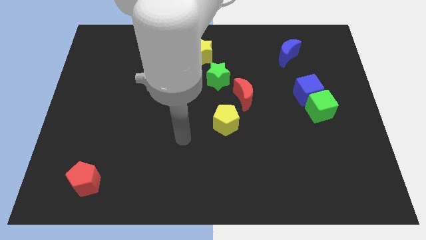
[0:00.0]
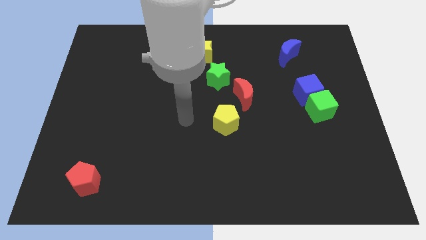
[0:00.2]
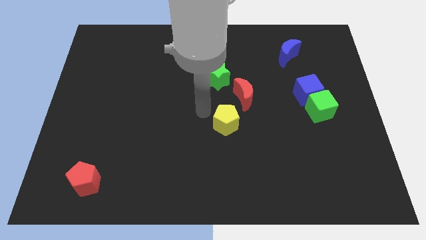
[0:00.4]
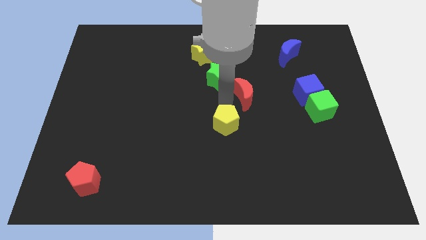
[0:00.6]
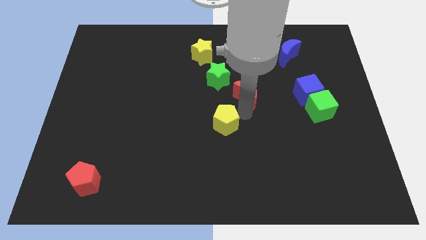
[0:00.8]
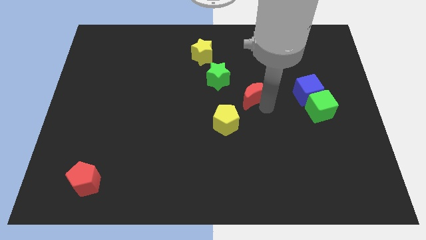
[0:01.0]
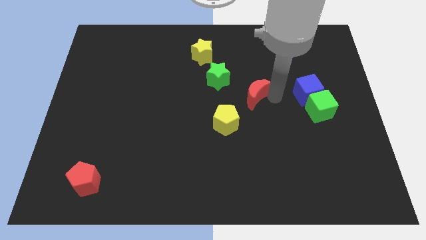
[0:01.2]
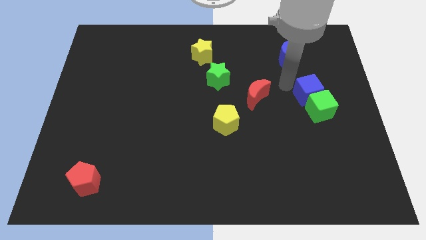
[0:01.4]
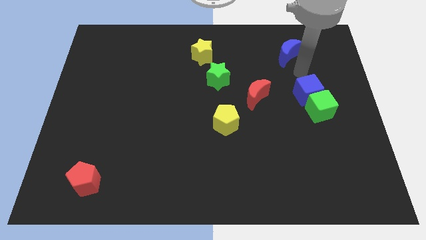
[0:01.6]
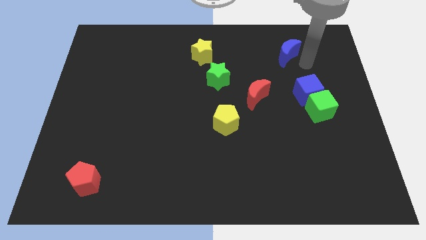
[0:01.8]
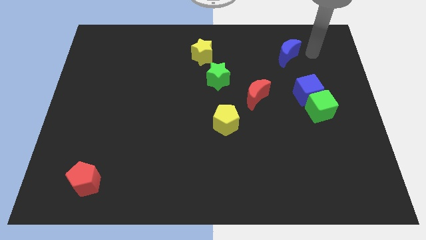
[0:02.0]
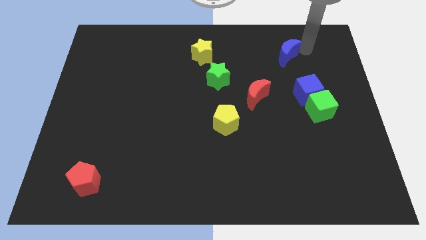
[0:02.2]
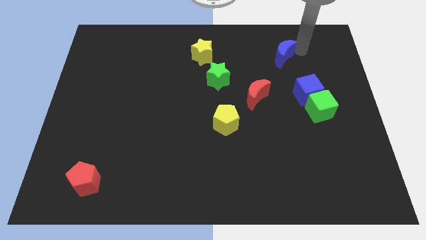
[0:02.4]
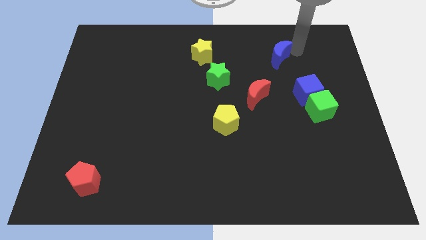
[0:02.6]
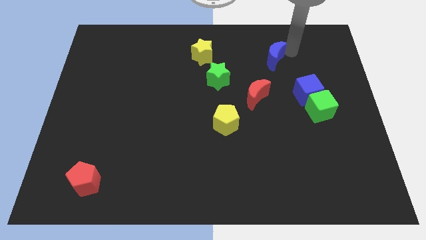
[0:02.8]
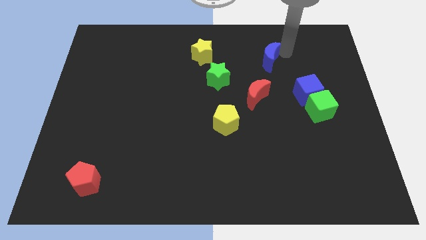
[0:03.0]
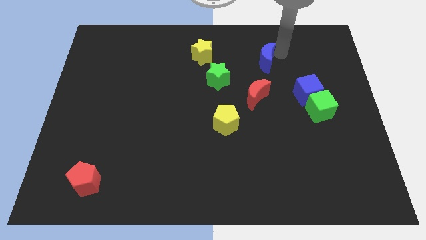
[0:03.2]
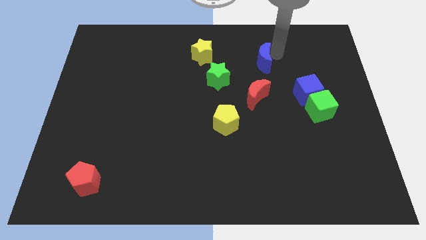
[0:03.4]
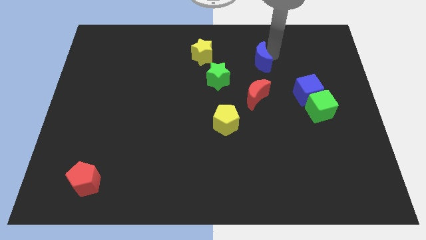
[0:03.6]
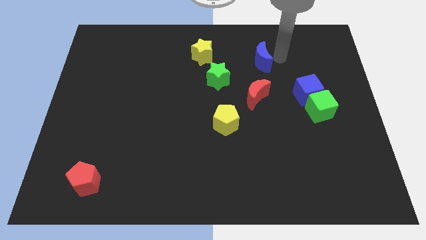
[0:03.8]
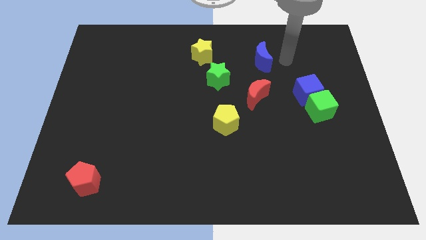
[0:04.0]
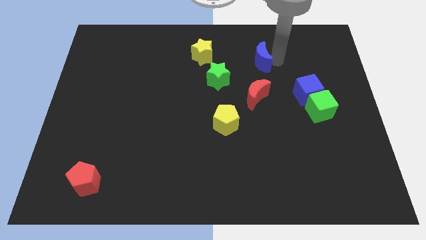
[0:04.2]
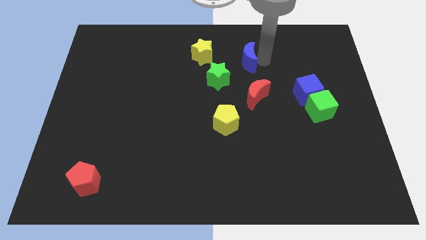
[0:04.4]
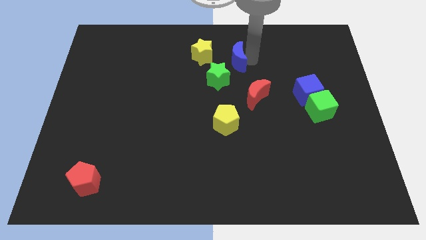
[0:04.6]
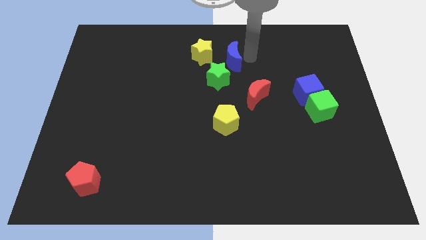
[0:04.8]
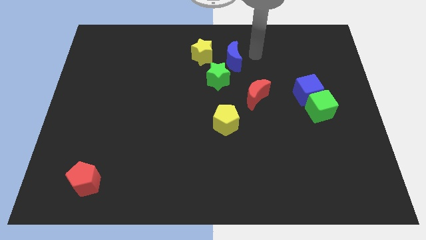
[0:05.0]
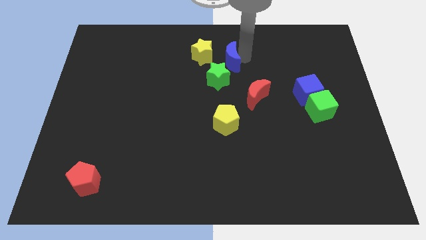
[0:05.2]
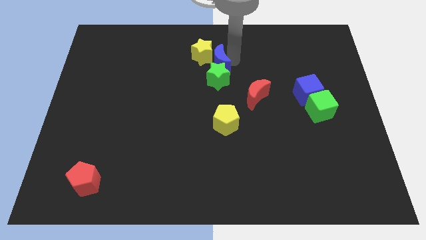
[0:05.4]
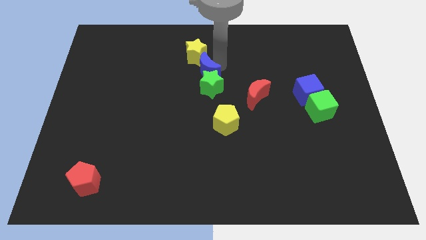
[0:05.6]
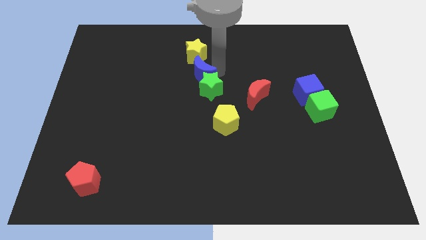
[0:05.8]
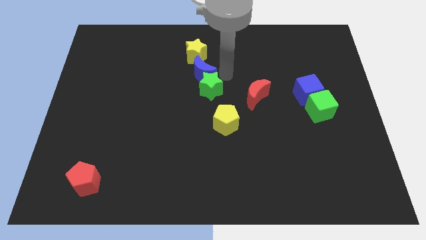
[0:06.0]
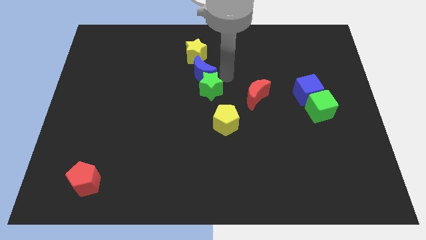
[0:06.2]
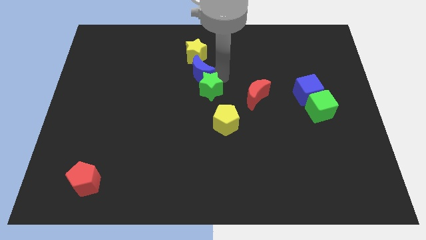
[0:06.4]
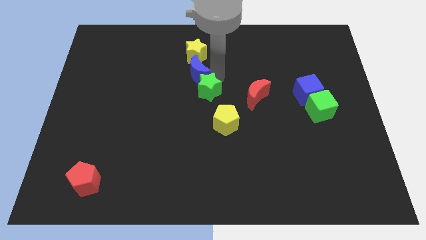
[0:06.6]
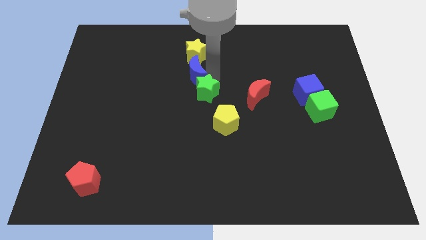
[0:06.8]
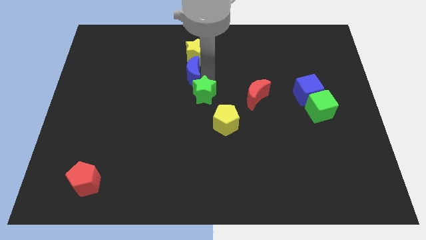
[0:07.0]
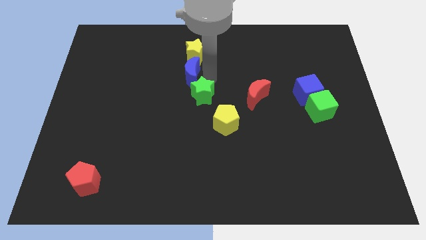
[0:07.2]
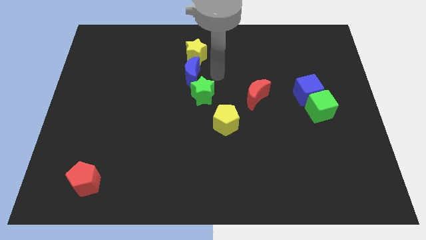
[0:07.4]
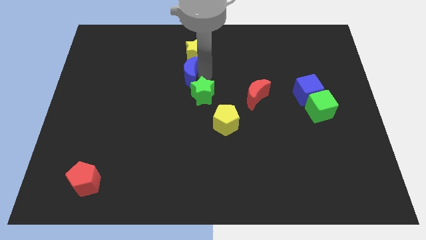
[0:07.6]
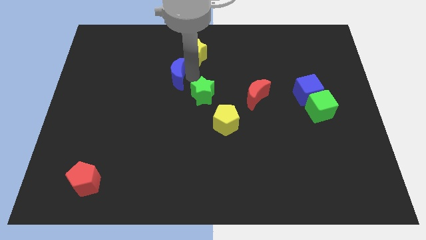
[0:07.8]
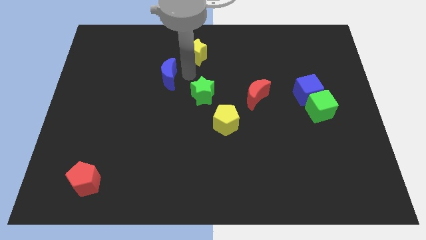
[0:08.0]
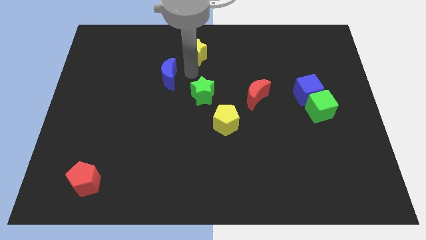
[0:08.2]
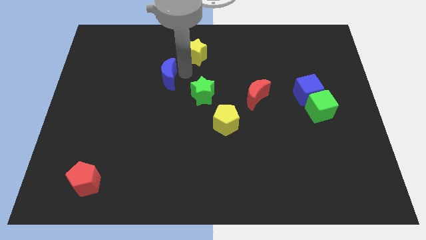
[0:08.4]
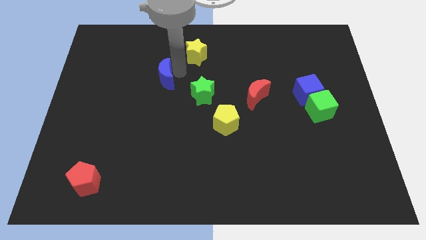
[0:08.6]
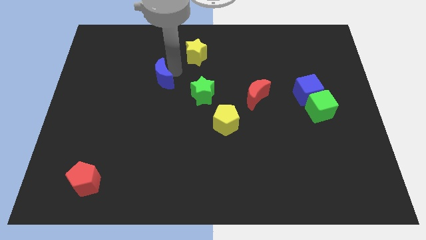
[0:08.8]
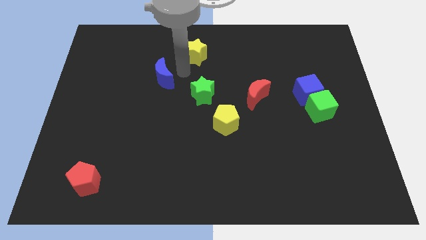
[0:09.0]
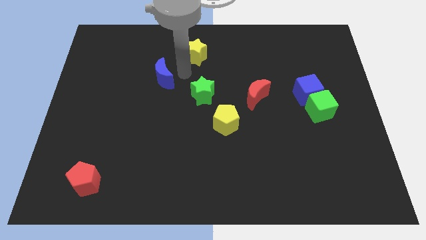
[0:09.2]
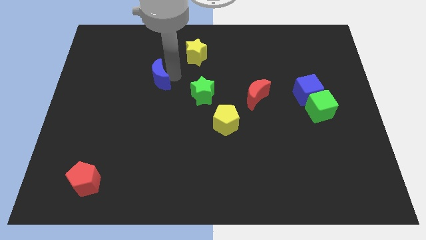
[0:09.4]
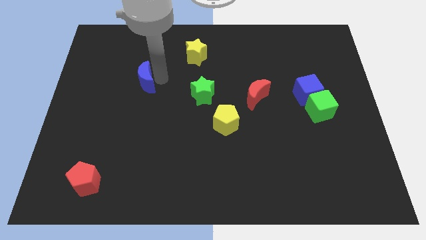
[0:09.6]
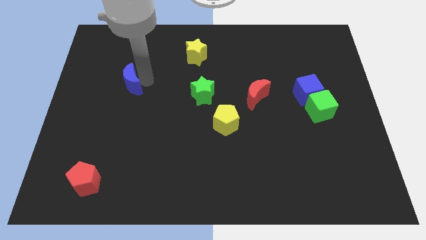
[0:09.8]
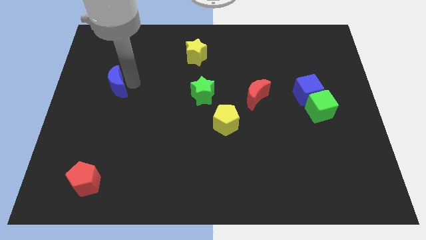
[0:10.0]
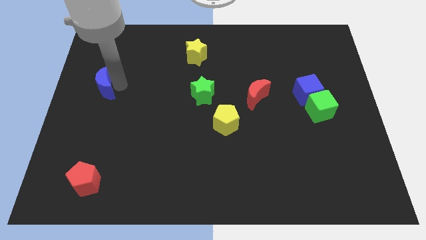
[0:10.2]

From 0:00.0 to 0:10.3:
push the blue moon to the left side of the board

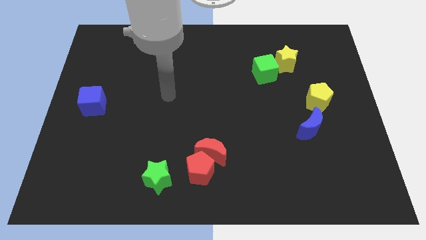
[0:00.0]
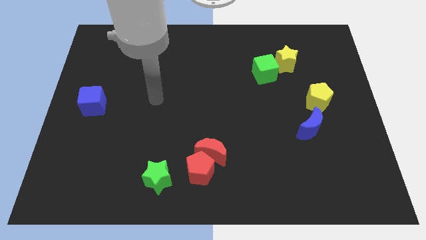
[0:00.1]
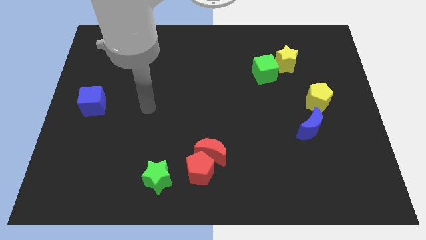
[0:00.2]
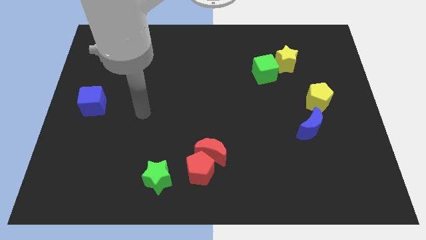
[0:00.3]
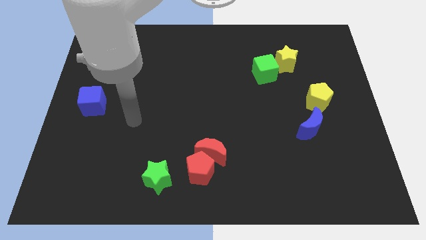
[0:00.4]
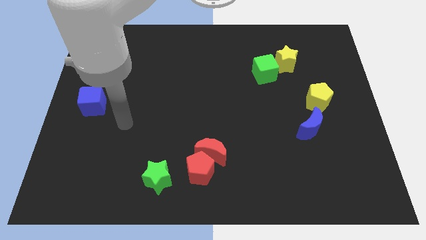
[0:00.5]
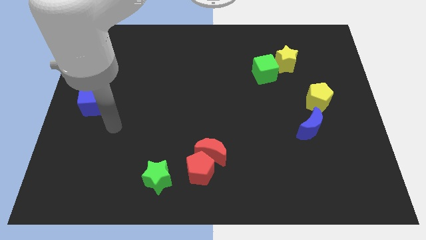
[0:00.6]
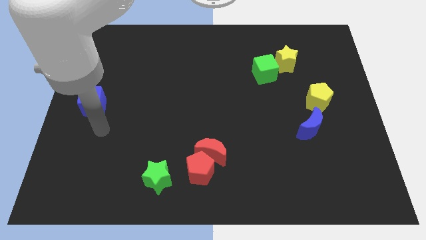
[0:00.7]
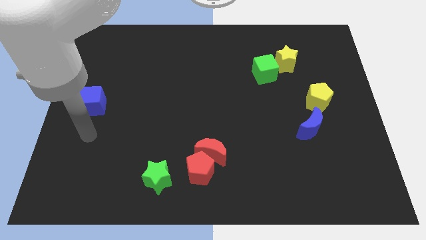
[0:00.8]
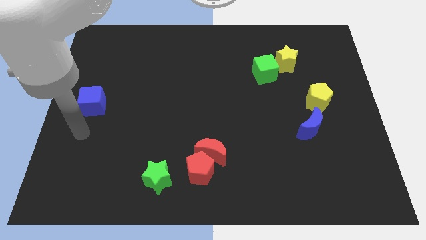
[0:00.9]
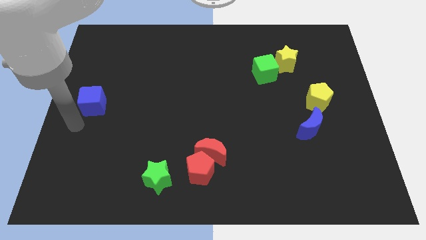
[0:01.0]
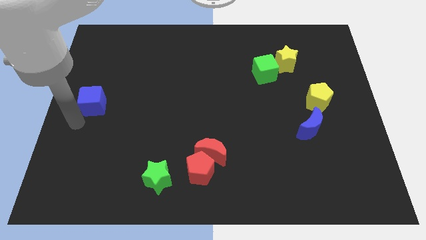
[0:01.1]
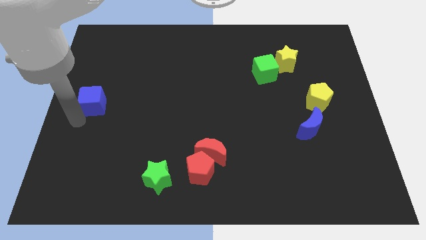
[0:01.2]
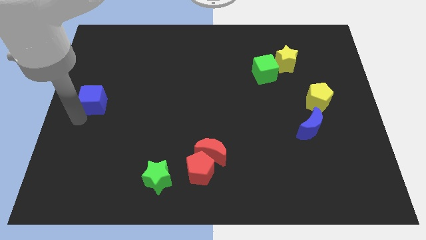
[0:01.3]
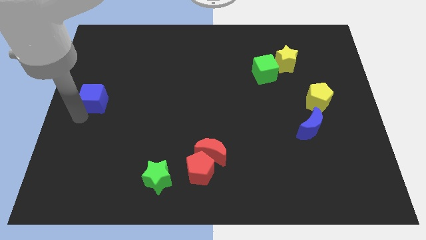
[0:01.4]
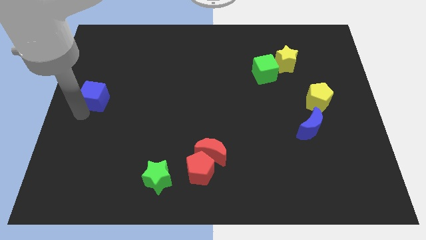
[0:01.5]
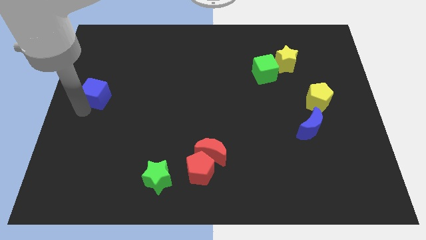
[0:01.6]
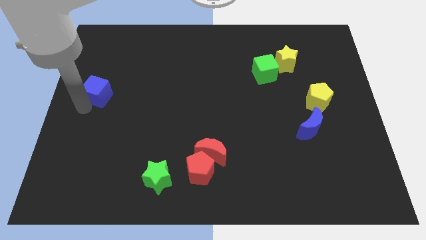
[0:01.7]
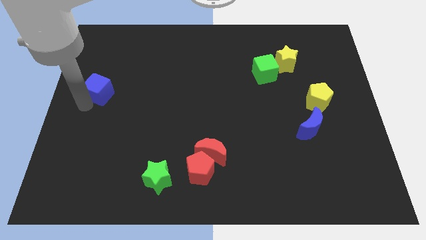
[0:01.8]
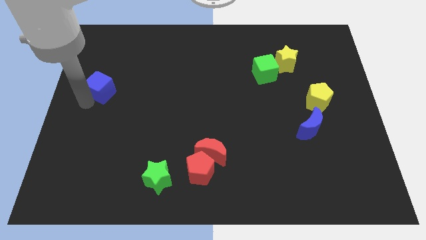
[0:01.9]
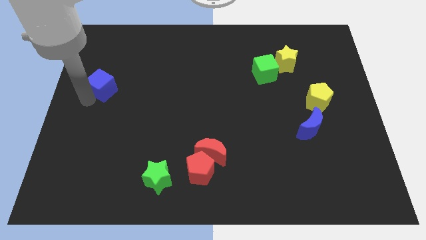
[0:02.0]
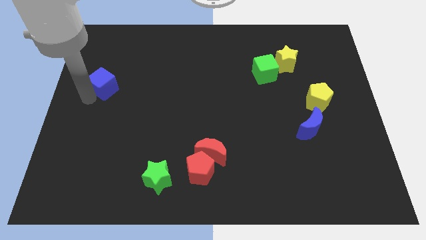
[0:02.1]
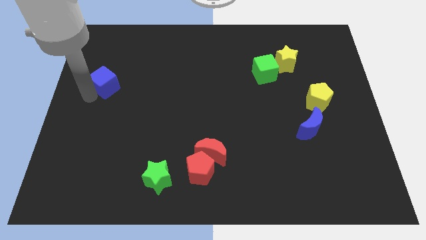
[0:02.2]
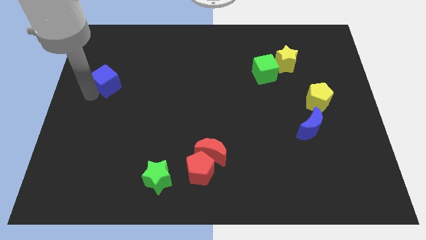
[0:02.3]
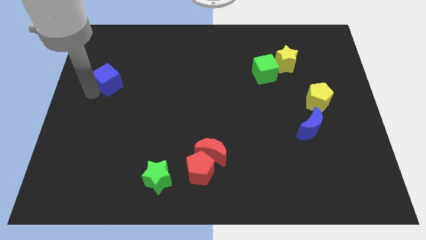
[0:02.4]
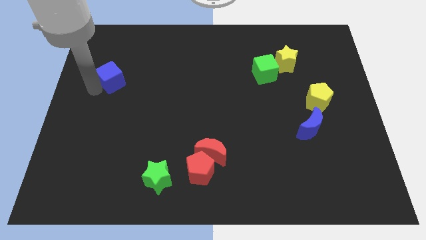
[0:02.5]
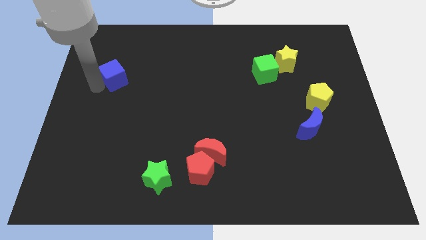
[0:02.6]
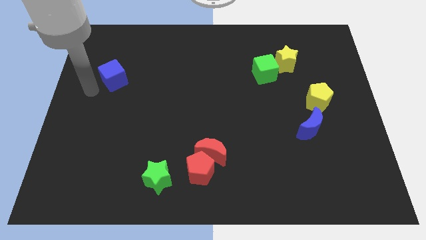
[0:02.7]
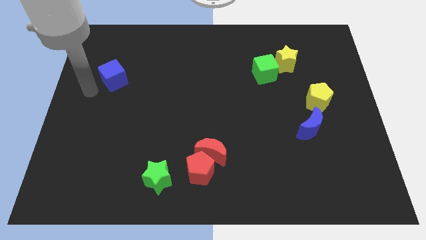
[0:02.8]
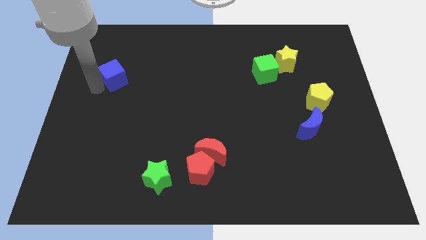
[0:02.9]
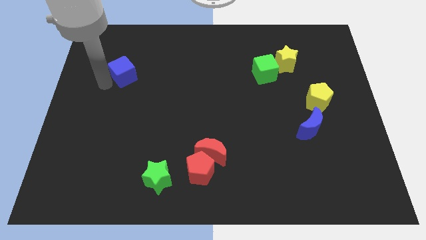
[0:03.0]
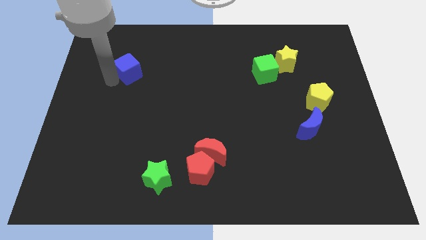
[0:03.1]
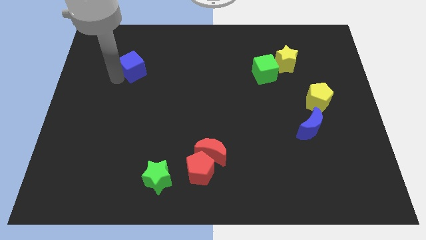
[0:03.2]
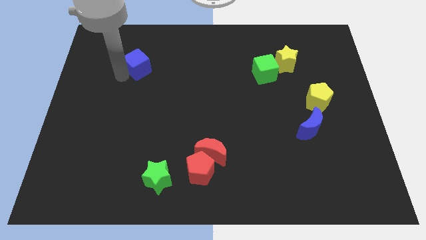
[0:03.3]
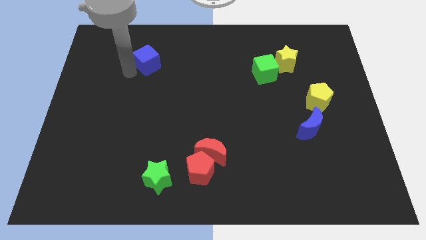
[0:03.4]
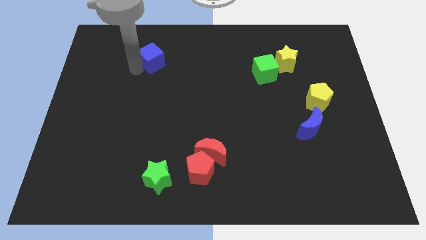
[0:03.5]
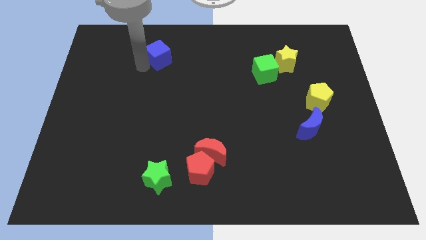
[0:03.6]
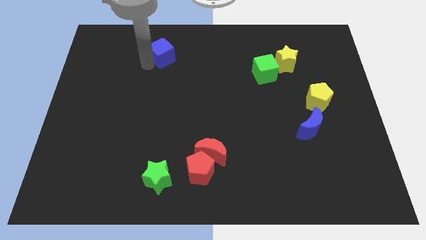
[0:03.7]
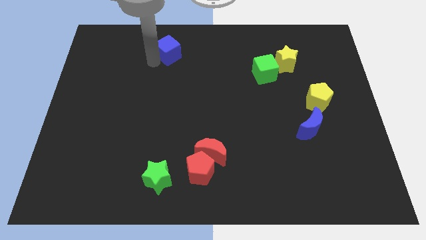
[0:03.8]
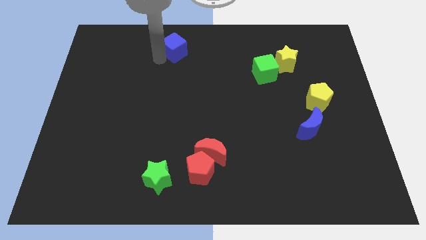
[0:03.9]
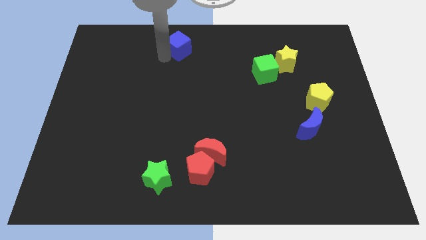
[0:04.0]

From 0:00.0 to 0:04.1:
slide the blue cube to the towards your base
